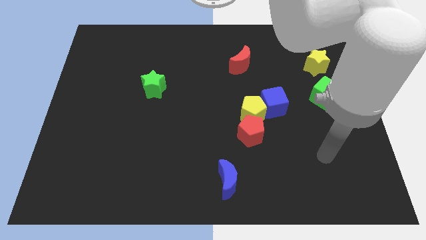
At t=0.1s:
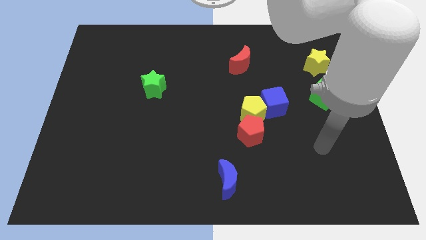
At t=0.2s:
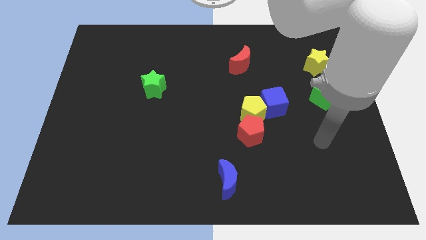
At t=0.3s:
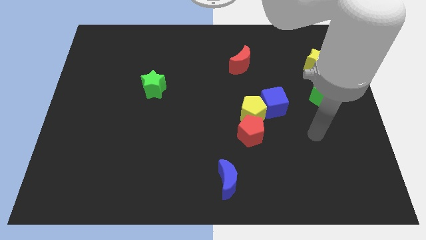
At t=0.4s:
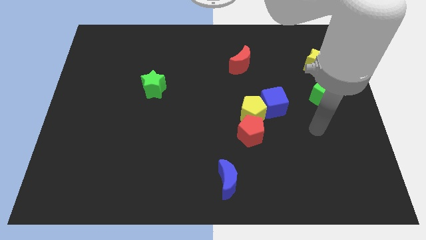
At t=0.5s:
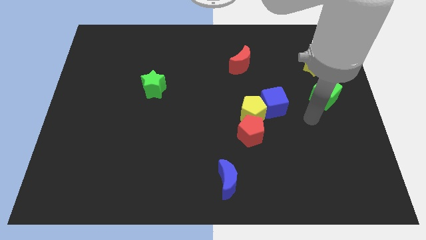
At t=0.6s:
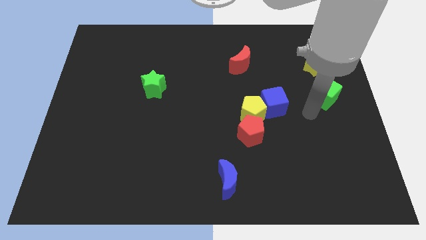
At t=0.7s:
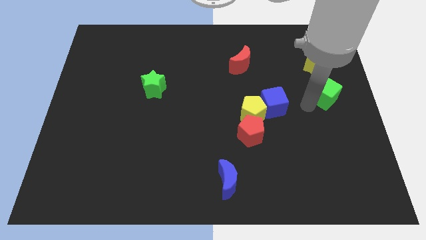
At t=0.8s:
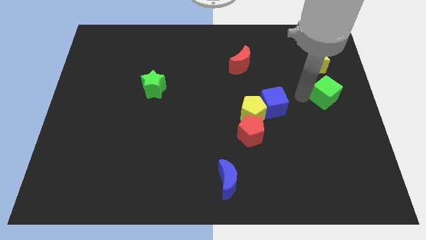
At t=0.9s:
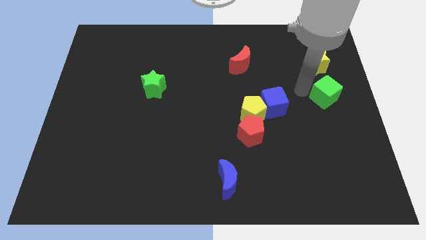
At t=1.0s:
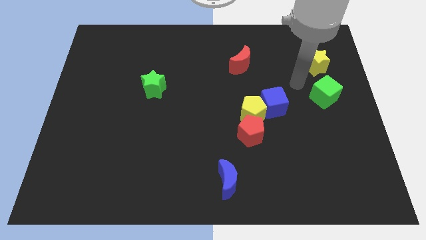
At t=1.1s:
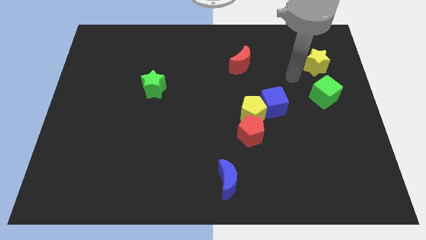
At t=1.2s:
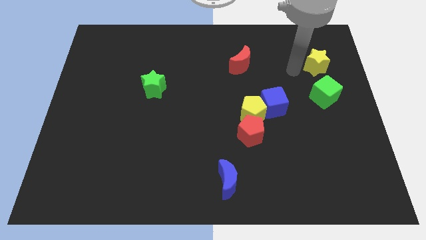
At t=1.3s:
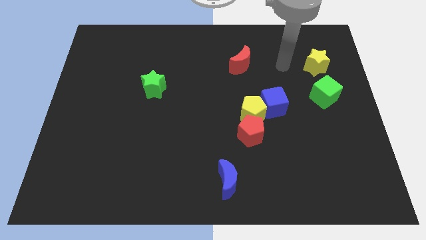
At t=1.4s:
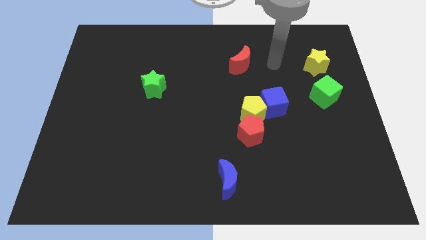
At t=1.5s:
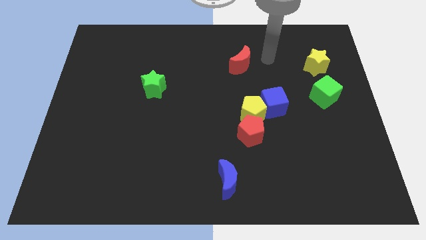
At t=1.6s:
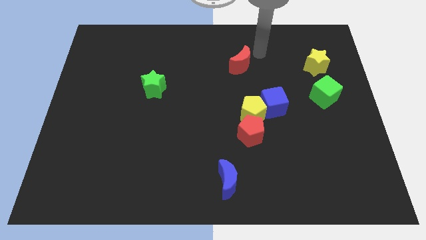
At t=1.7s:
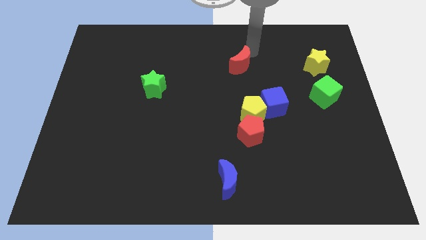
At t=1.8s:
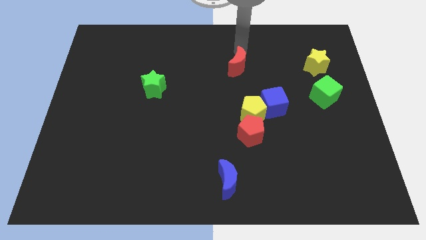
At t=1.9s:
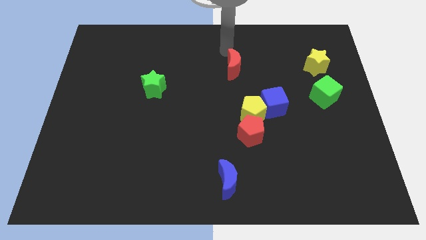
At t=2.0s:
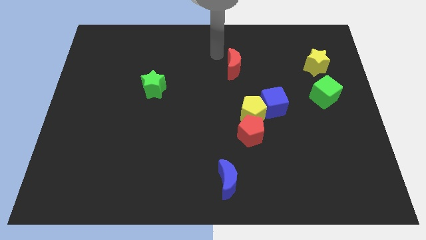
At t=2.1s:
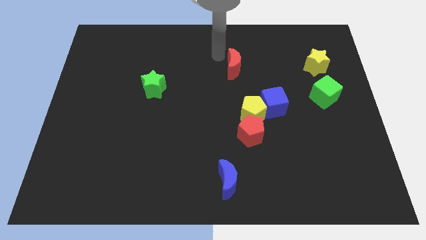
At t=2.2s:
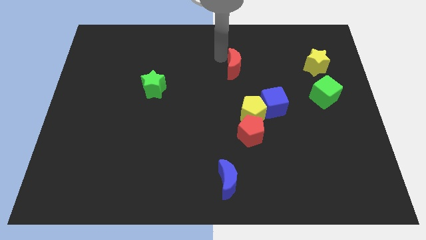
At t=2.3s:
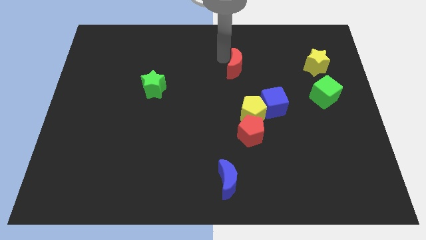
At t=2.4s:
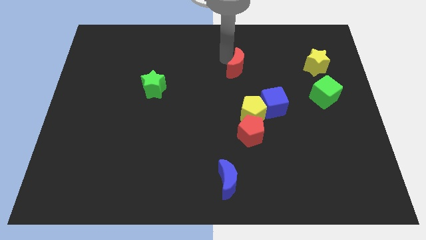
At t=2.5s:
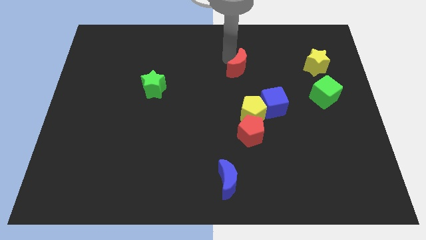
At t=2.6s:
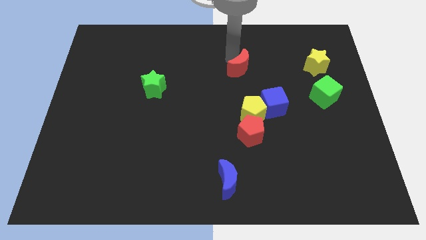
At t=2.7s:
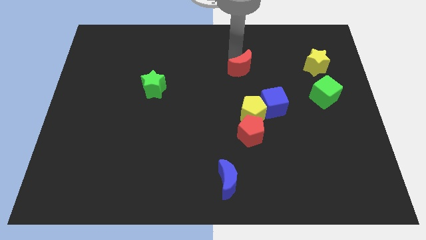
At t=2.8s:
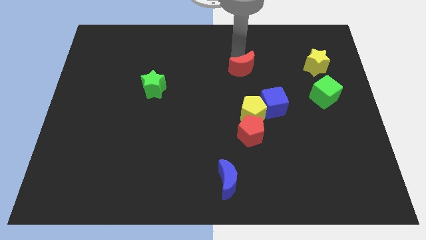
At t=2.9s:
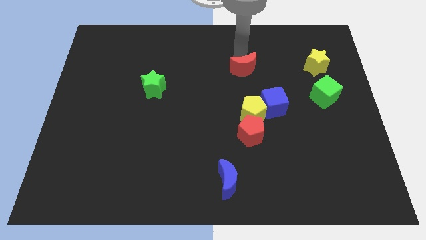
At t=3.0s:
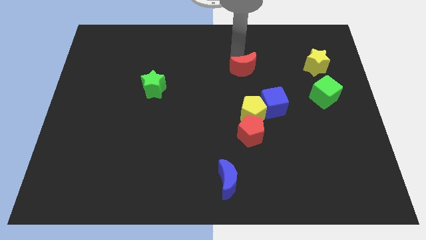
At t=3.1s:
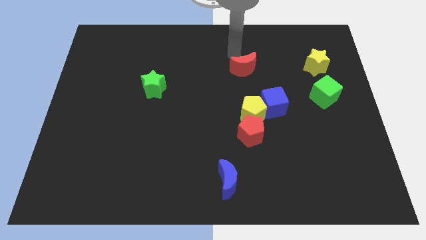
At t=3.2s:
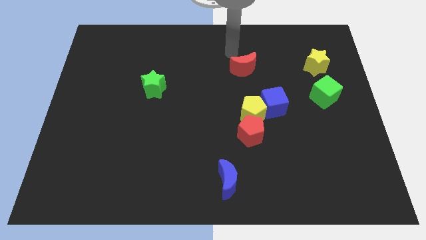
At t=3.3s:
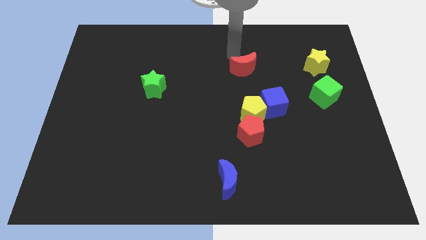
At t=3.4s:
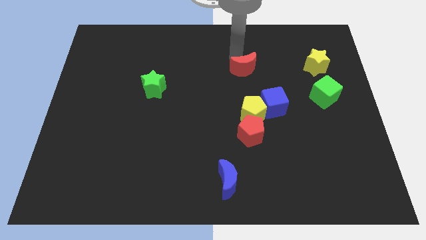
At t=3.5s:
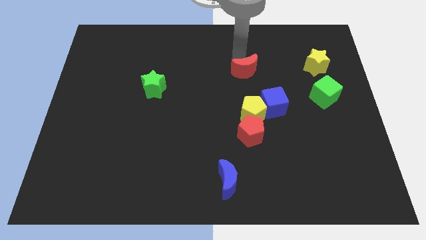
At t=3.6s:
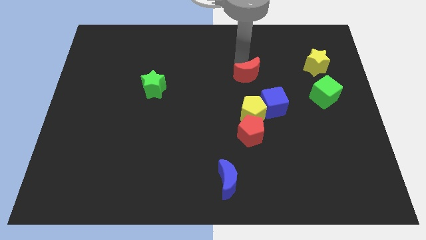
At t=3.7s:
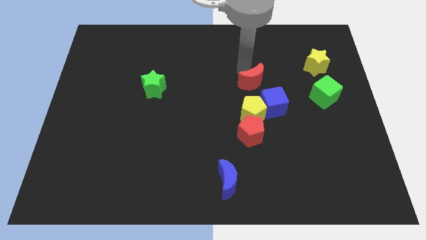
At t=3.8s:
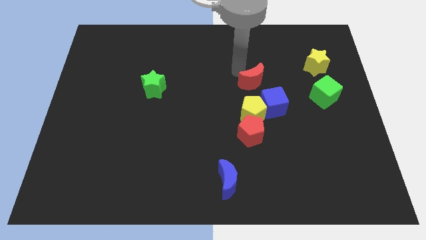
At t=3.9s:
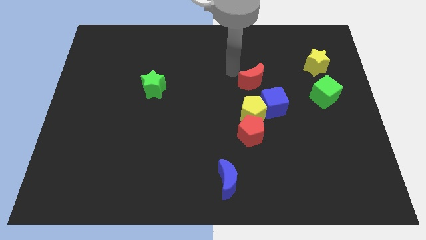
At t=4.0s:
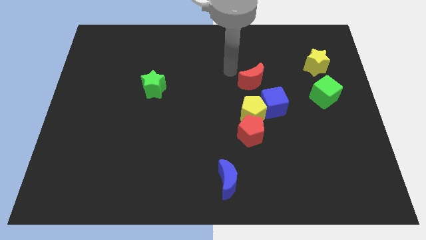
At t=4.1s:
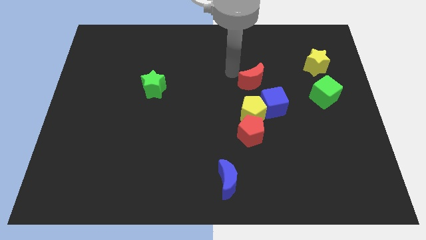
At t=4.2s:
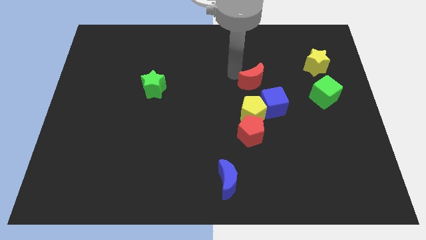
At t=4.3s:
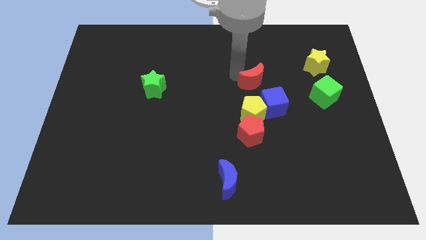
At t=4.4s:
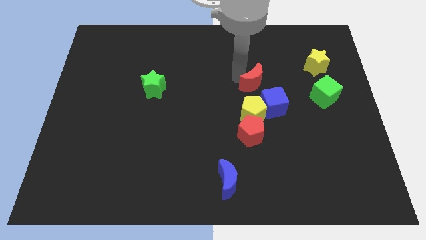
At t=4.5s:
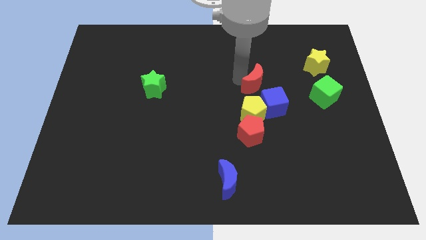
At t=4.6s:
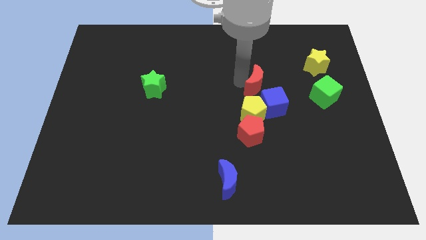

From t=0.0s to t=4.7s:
slightly move the red moon down and to the right diagonally

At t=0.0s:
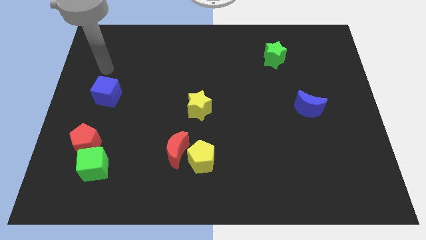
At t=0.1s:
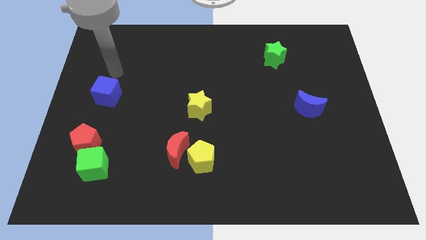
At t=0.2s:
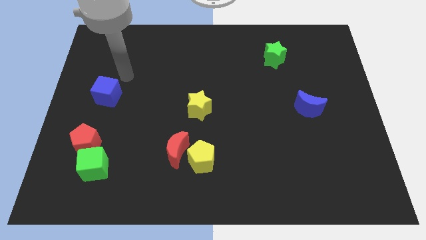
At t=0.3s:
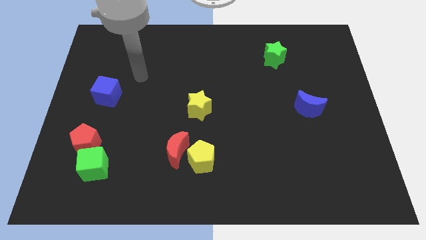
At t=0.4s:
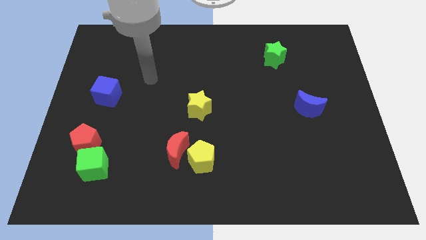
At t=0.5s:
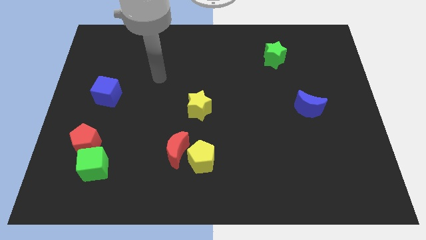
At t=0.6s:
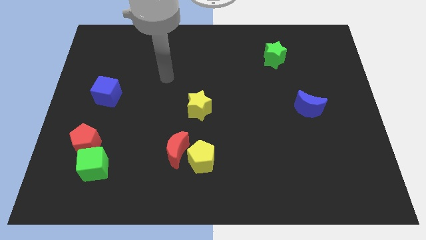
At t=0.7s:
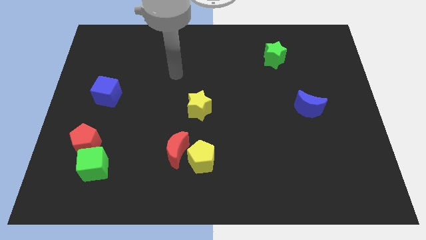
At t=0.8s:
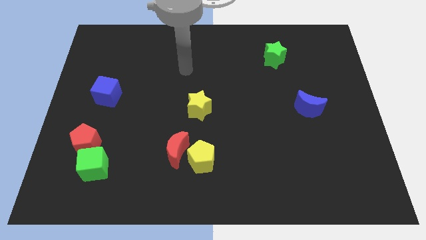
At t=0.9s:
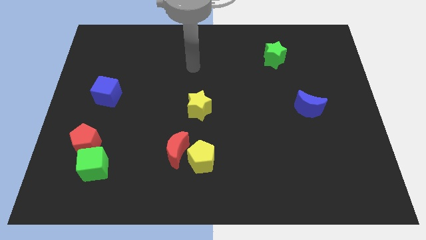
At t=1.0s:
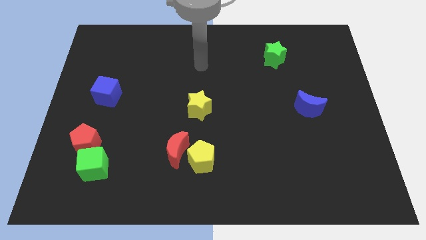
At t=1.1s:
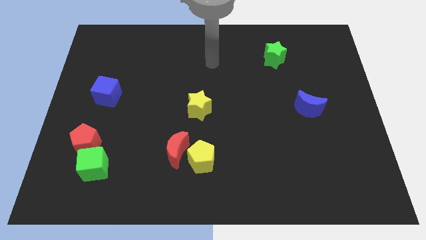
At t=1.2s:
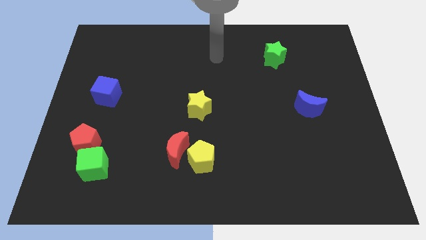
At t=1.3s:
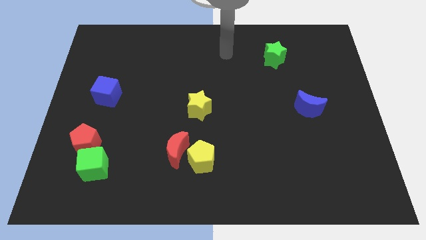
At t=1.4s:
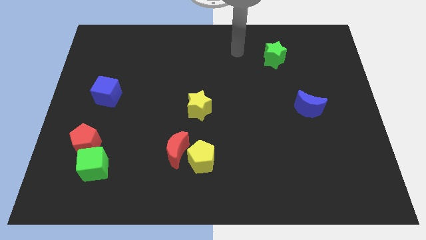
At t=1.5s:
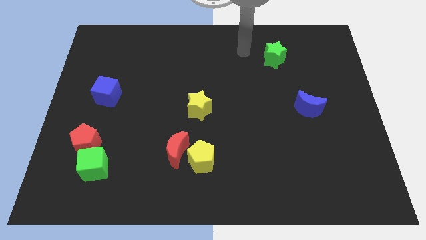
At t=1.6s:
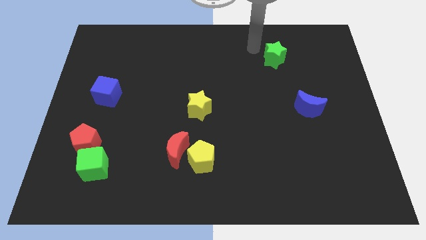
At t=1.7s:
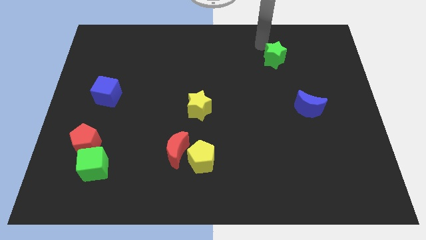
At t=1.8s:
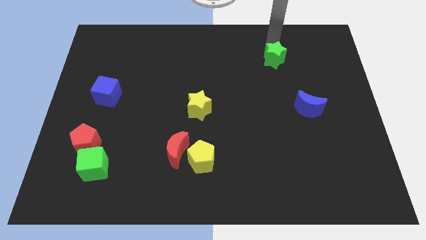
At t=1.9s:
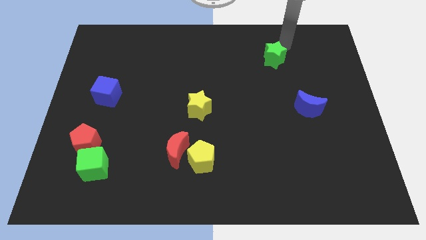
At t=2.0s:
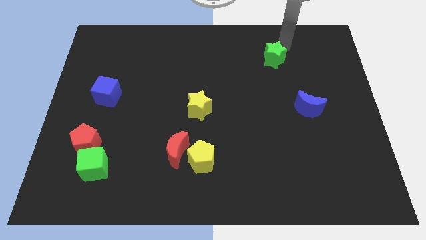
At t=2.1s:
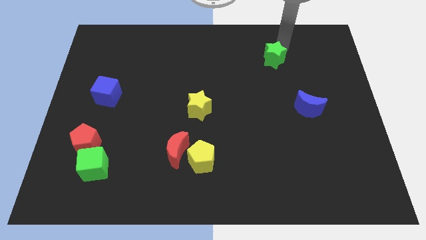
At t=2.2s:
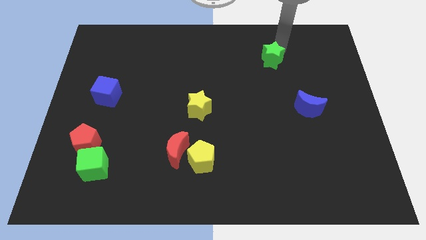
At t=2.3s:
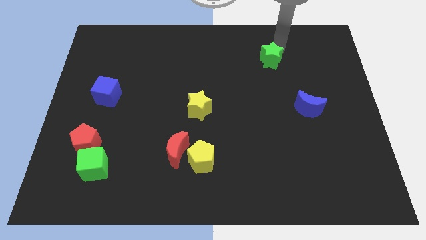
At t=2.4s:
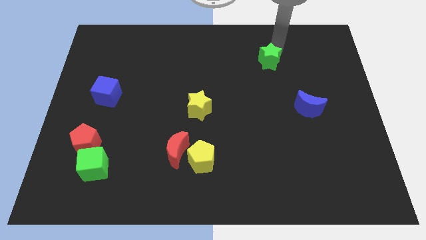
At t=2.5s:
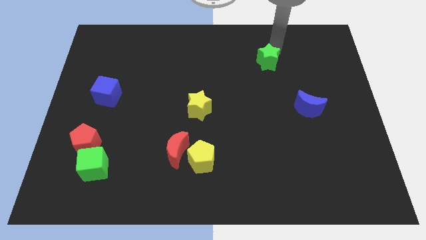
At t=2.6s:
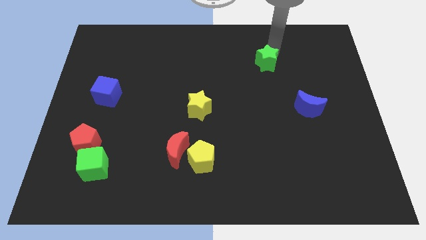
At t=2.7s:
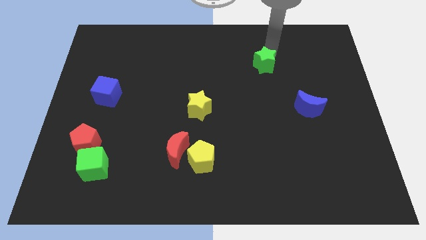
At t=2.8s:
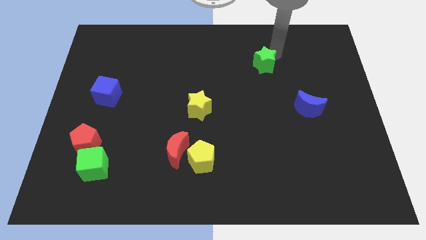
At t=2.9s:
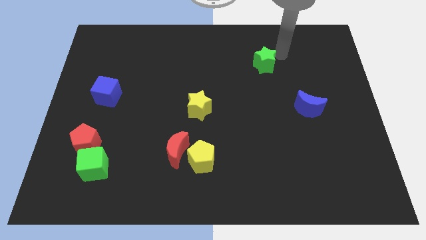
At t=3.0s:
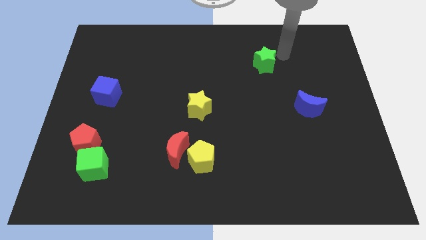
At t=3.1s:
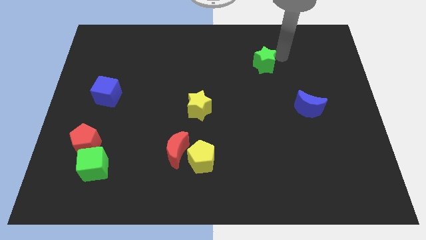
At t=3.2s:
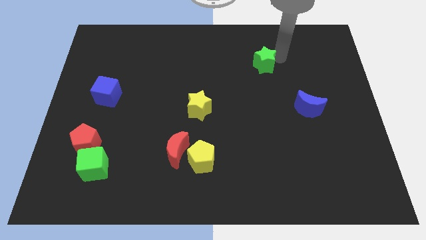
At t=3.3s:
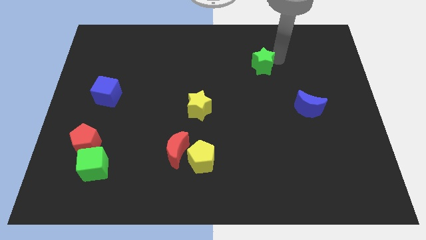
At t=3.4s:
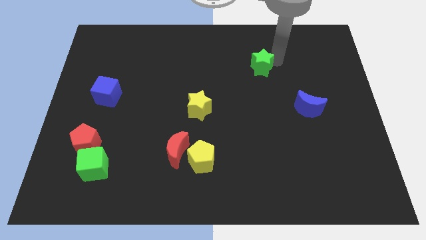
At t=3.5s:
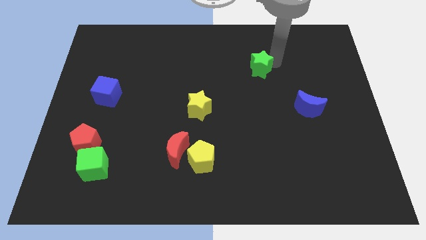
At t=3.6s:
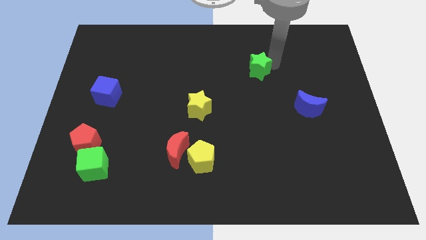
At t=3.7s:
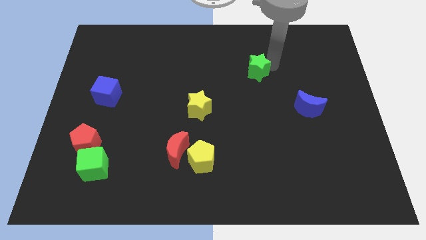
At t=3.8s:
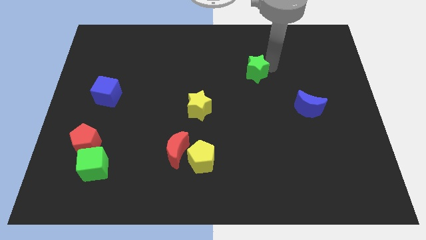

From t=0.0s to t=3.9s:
push the green star slightly down and left
